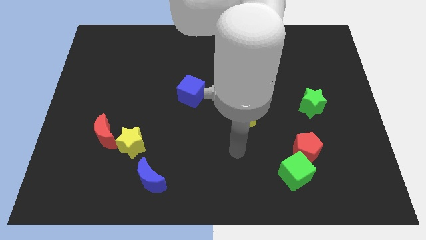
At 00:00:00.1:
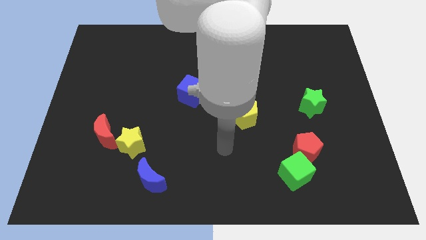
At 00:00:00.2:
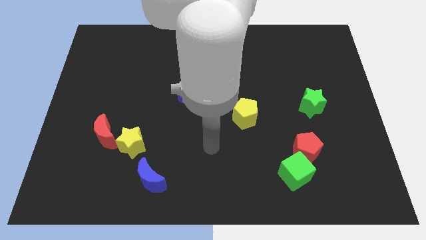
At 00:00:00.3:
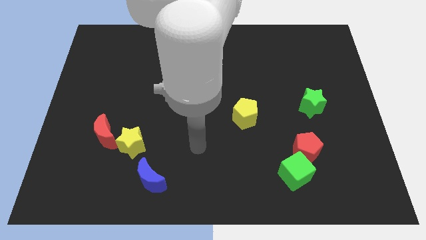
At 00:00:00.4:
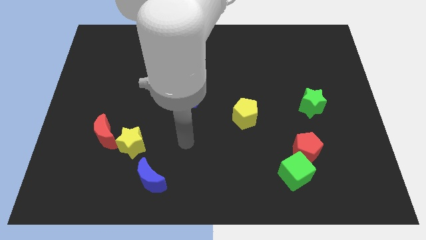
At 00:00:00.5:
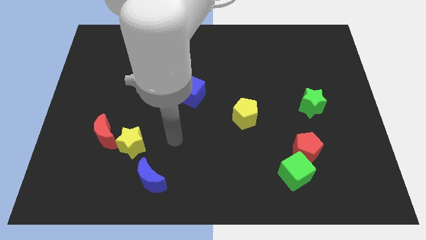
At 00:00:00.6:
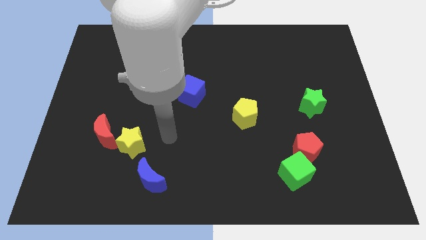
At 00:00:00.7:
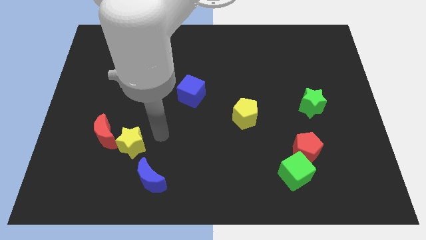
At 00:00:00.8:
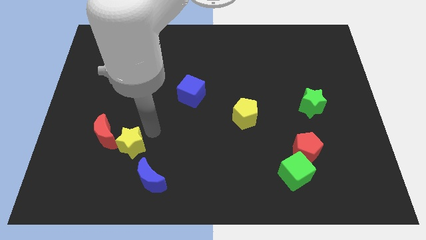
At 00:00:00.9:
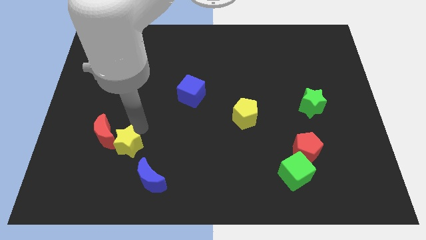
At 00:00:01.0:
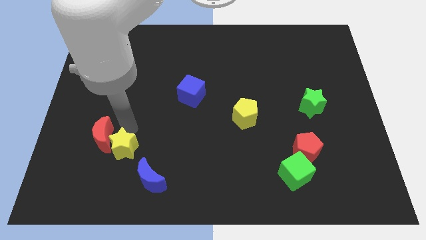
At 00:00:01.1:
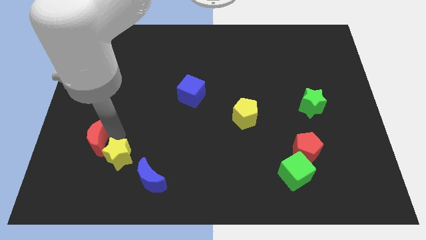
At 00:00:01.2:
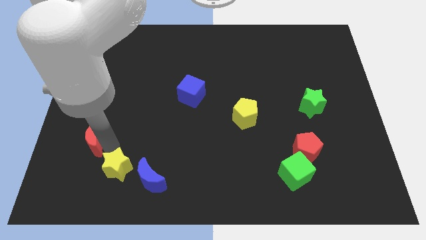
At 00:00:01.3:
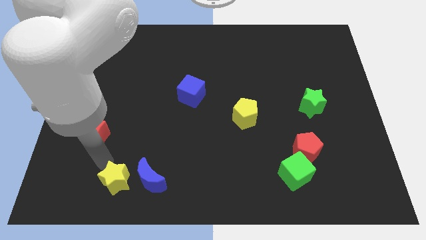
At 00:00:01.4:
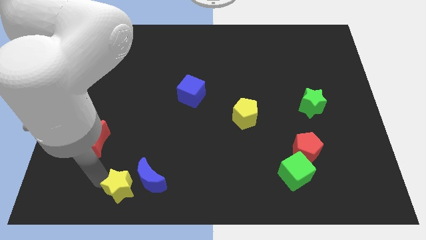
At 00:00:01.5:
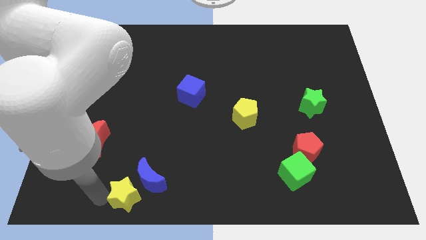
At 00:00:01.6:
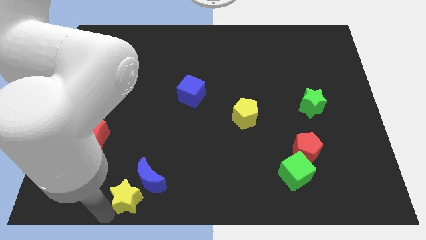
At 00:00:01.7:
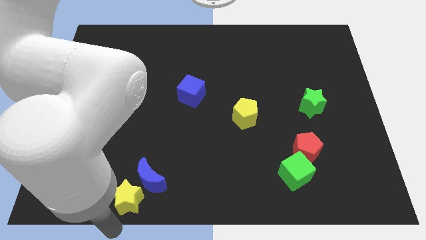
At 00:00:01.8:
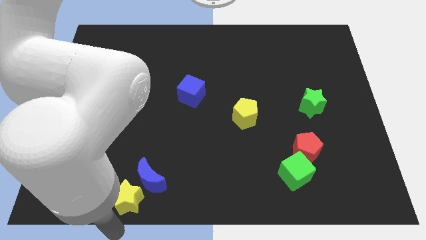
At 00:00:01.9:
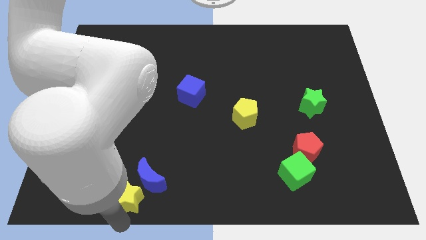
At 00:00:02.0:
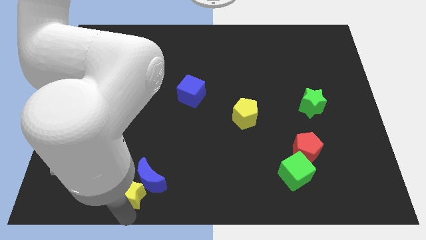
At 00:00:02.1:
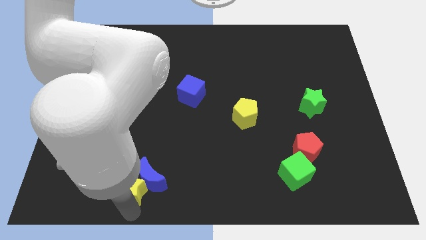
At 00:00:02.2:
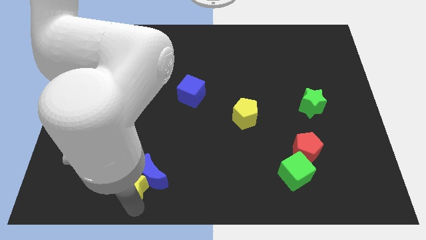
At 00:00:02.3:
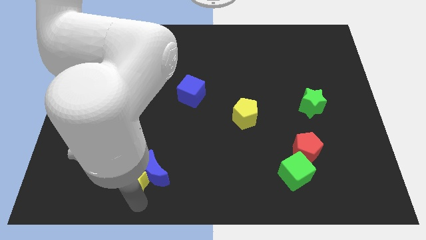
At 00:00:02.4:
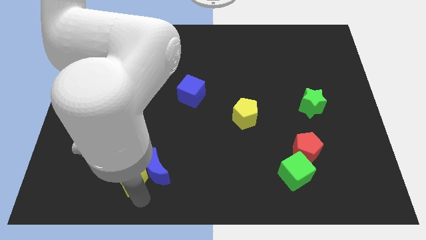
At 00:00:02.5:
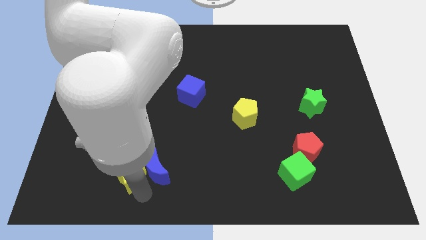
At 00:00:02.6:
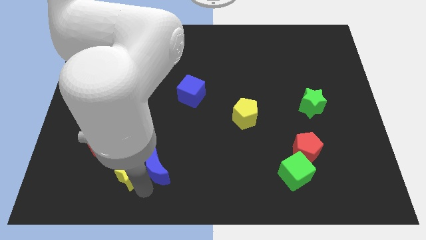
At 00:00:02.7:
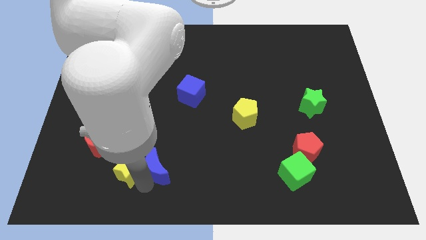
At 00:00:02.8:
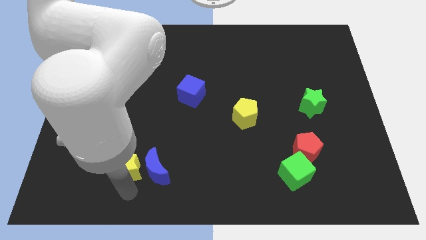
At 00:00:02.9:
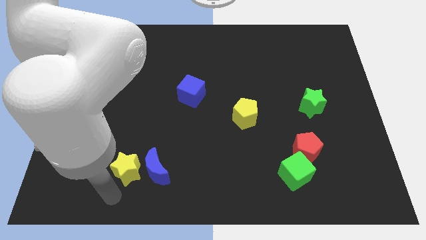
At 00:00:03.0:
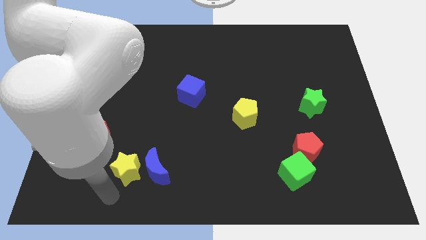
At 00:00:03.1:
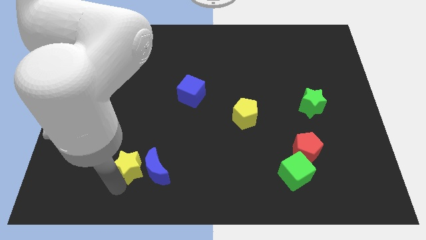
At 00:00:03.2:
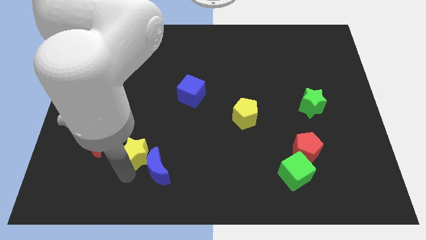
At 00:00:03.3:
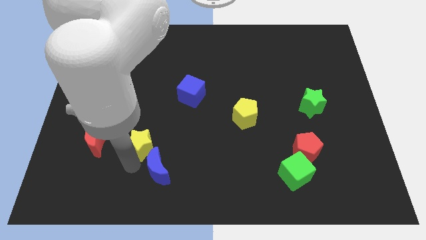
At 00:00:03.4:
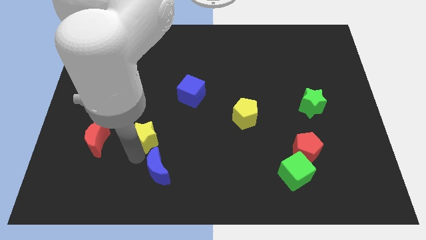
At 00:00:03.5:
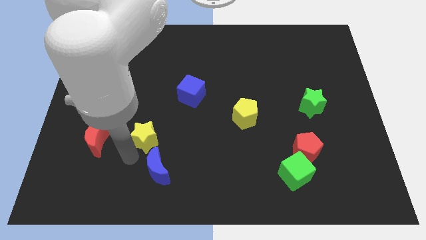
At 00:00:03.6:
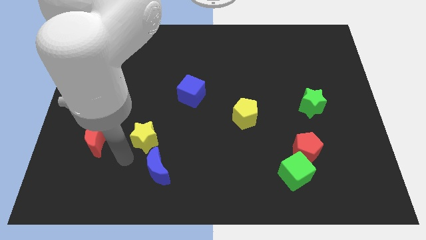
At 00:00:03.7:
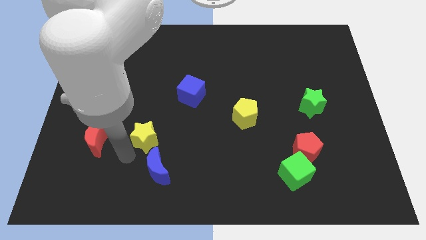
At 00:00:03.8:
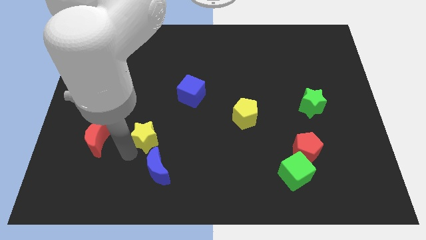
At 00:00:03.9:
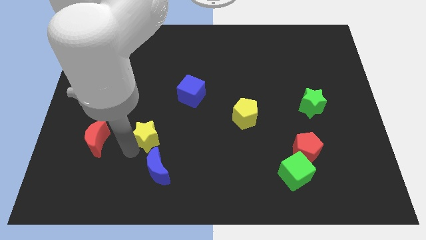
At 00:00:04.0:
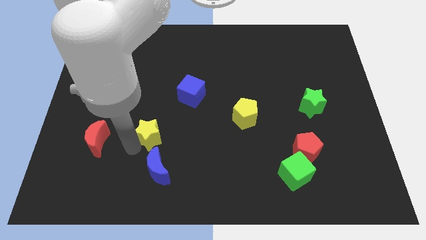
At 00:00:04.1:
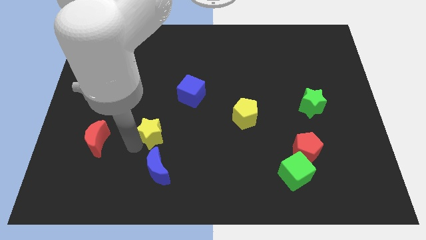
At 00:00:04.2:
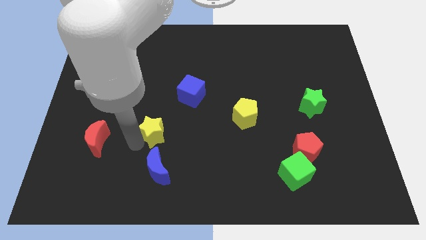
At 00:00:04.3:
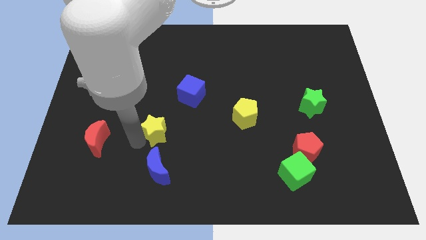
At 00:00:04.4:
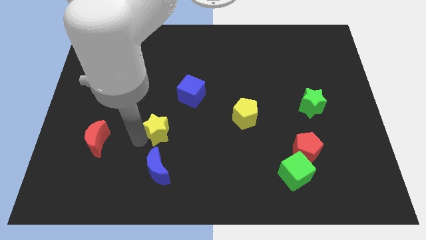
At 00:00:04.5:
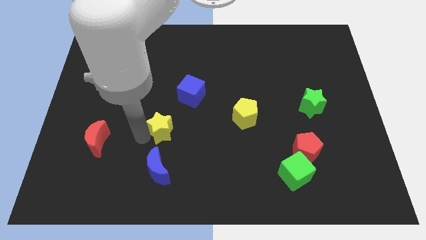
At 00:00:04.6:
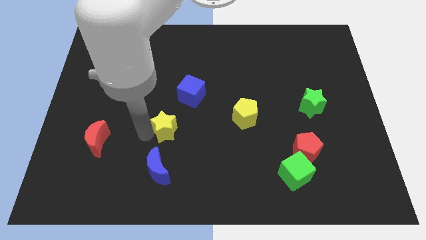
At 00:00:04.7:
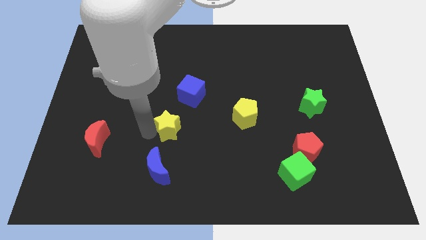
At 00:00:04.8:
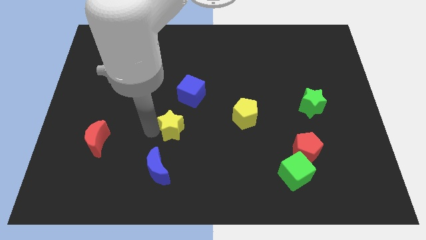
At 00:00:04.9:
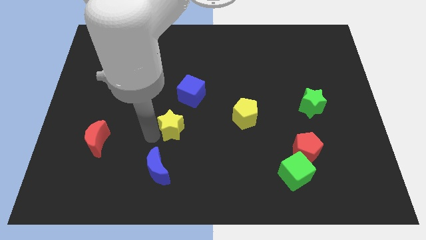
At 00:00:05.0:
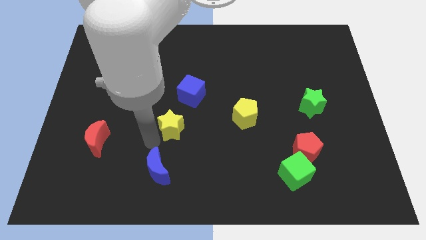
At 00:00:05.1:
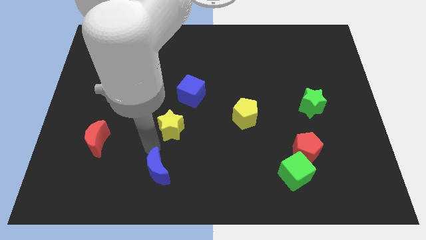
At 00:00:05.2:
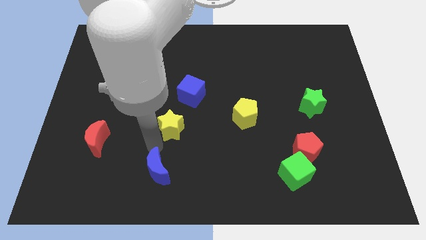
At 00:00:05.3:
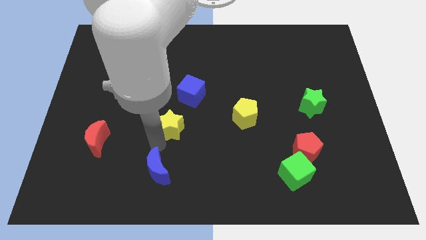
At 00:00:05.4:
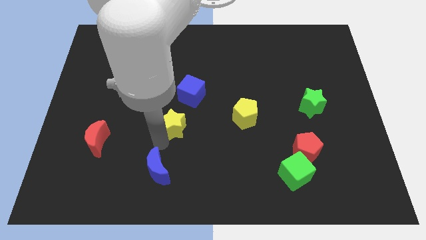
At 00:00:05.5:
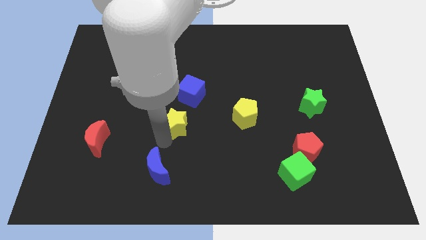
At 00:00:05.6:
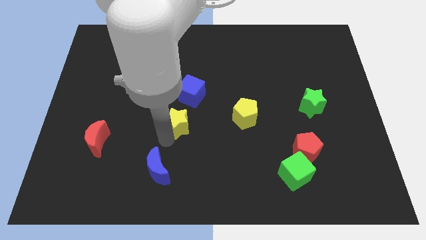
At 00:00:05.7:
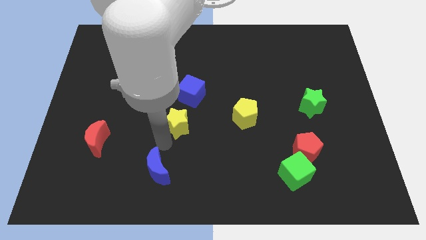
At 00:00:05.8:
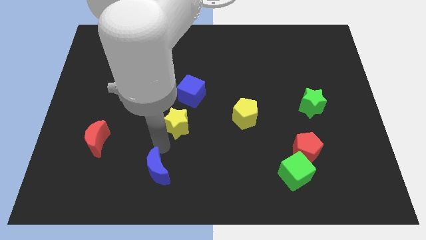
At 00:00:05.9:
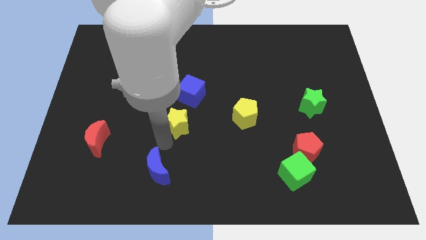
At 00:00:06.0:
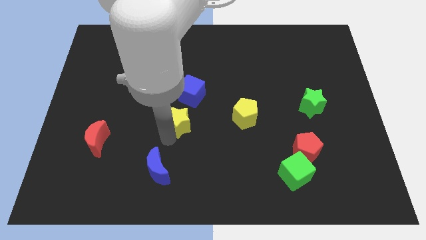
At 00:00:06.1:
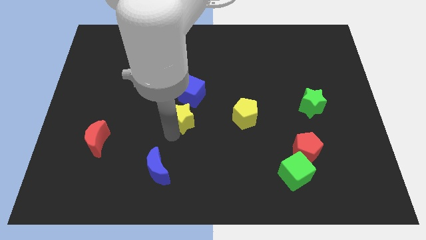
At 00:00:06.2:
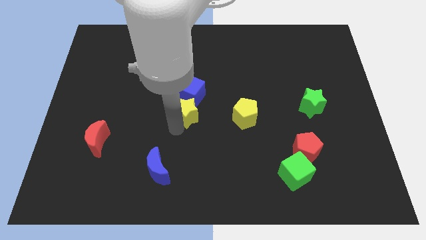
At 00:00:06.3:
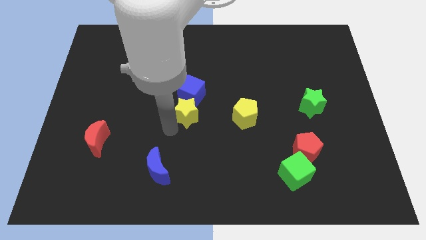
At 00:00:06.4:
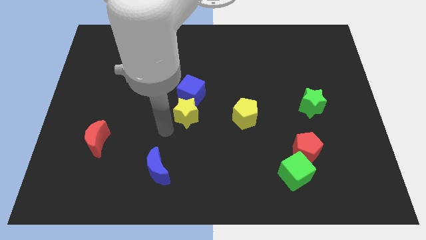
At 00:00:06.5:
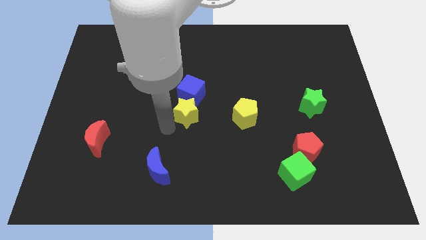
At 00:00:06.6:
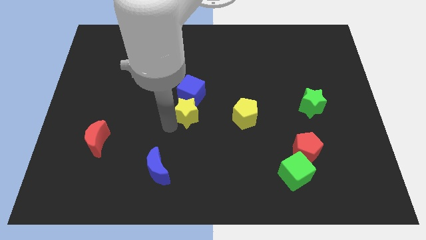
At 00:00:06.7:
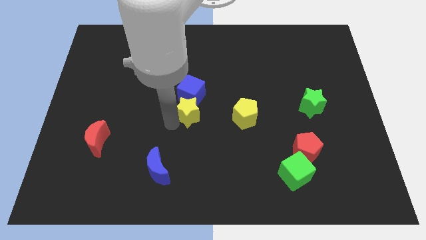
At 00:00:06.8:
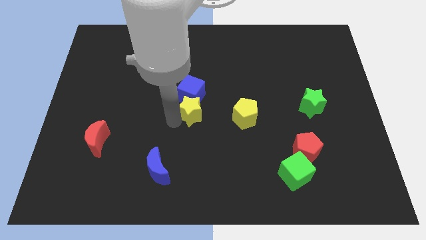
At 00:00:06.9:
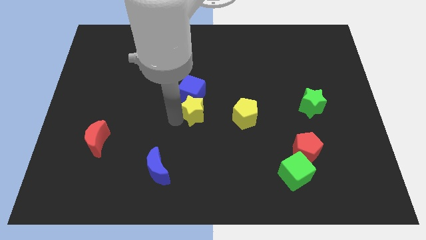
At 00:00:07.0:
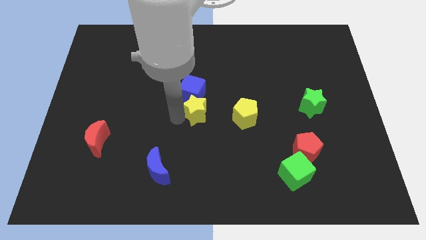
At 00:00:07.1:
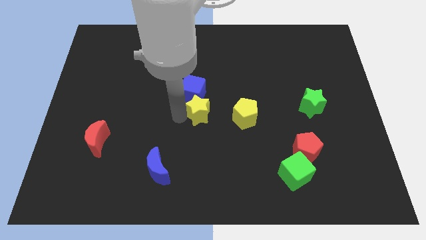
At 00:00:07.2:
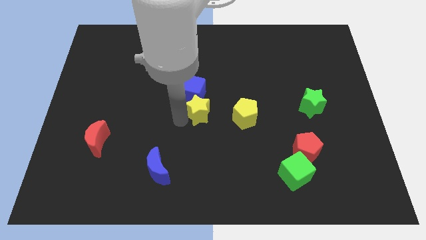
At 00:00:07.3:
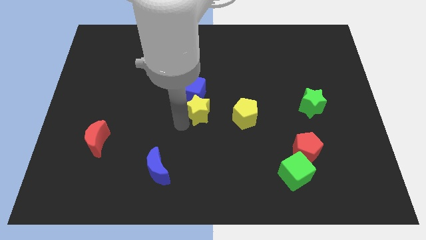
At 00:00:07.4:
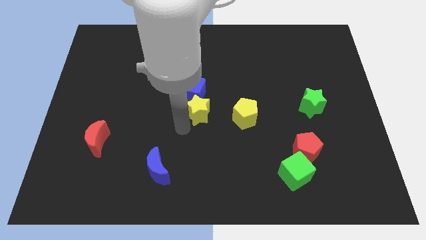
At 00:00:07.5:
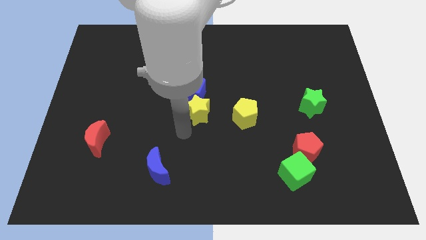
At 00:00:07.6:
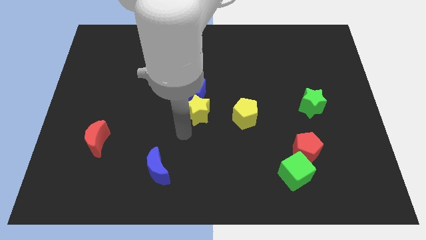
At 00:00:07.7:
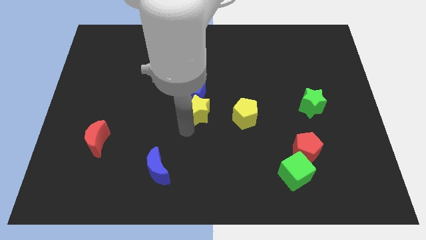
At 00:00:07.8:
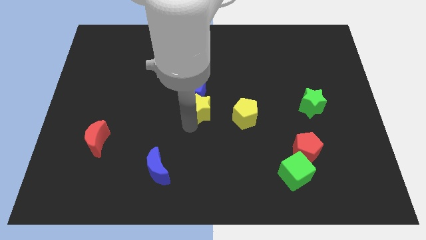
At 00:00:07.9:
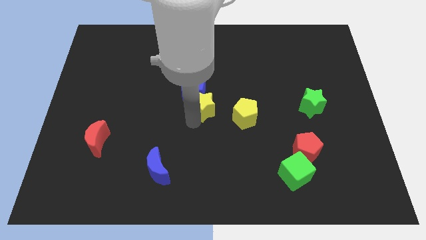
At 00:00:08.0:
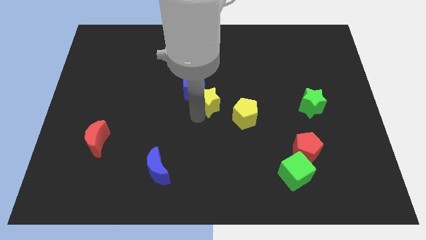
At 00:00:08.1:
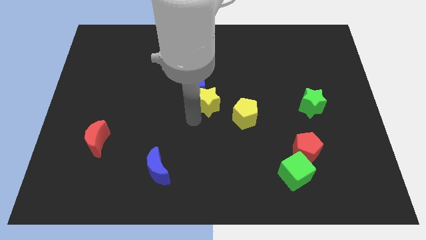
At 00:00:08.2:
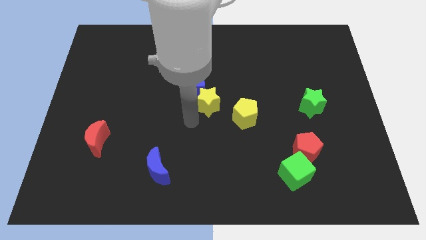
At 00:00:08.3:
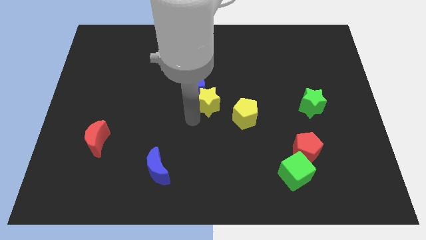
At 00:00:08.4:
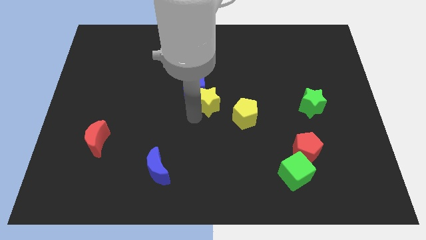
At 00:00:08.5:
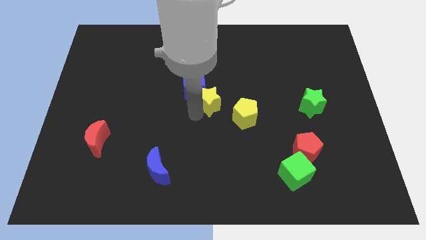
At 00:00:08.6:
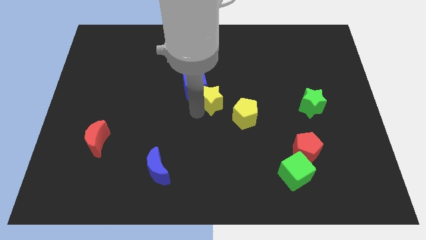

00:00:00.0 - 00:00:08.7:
push the yellow star upwards and then to the right
